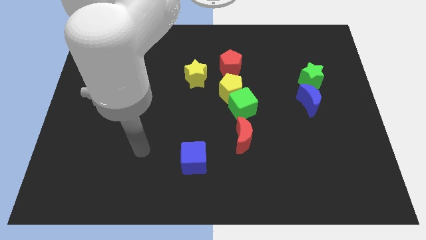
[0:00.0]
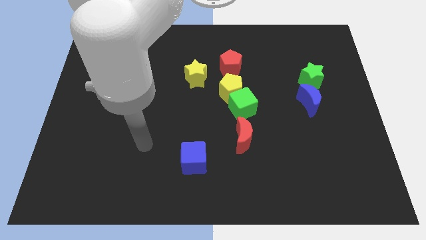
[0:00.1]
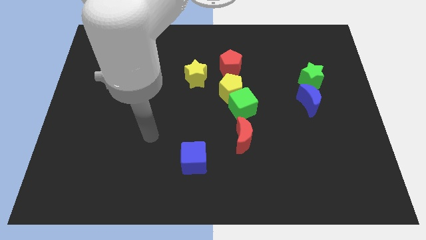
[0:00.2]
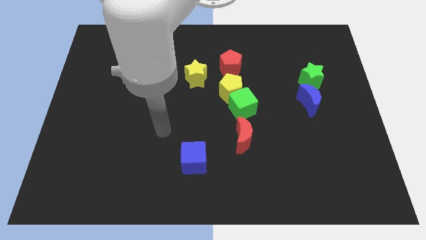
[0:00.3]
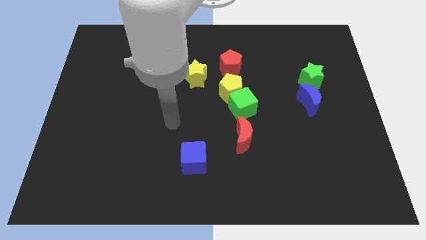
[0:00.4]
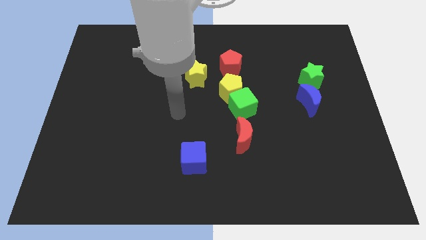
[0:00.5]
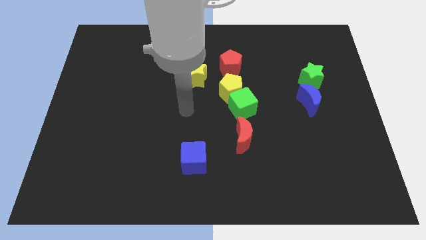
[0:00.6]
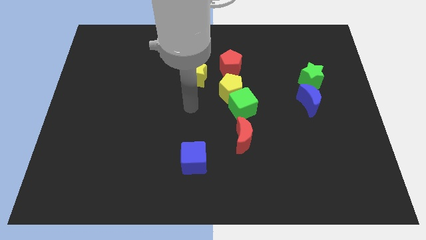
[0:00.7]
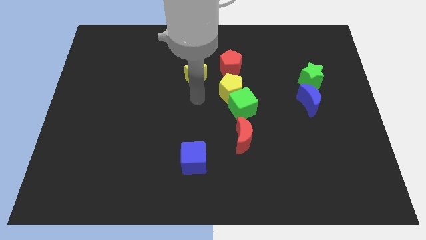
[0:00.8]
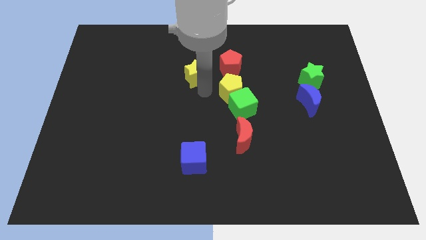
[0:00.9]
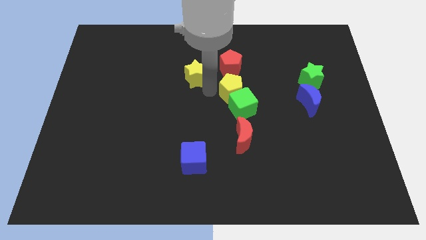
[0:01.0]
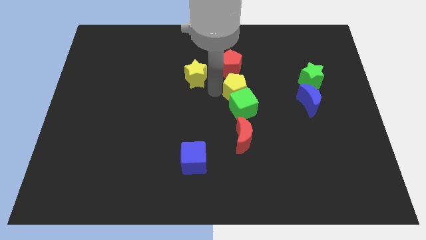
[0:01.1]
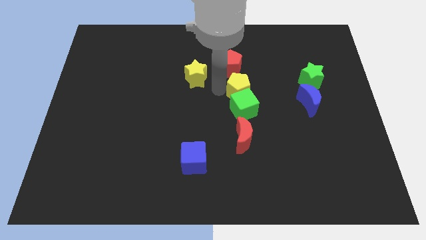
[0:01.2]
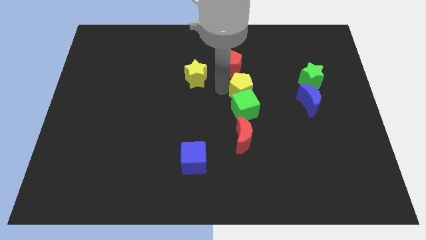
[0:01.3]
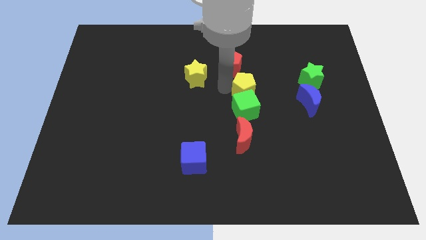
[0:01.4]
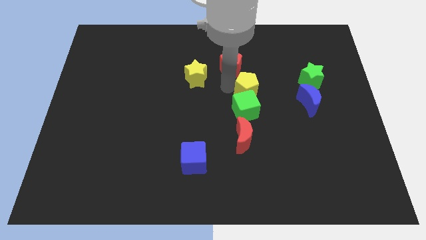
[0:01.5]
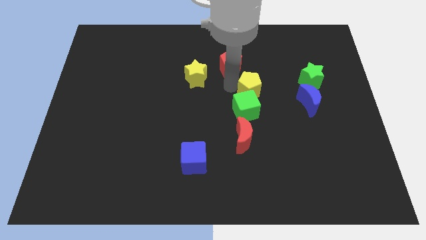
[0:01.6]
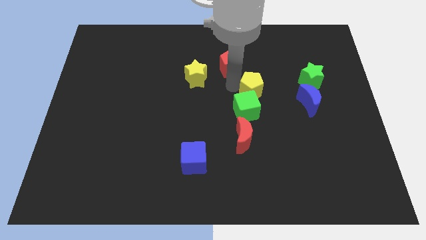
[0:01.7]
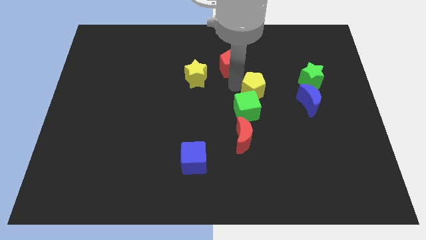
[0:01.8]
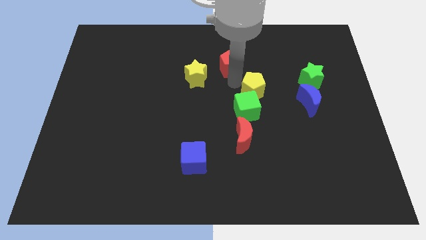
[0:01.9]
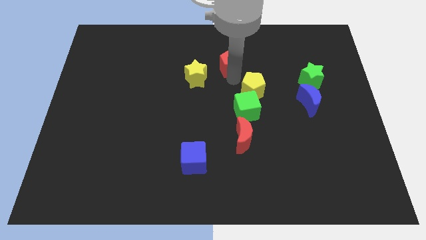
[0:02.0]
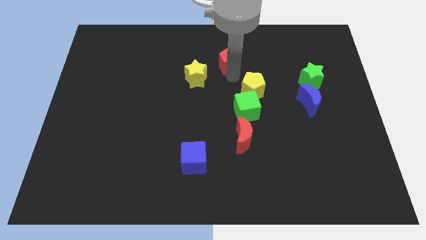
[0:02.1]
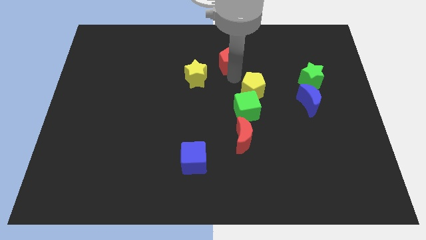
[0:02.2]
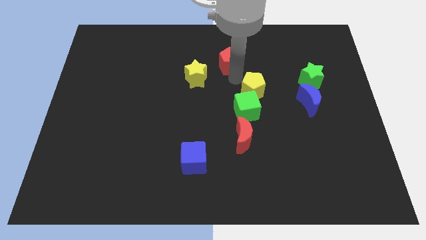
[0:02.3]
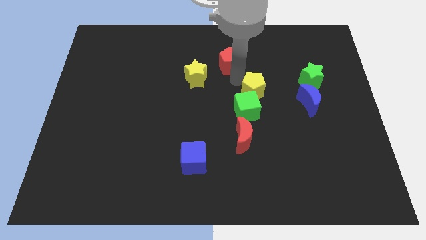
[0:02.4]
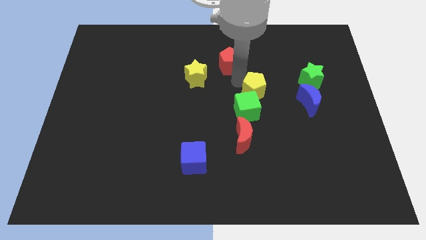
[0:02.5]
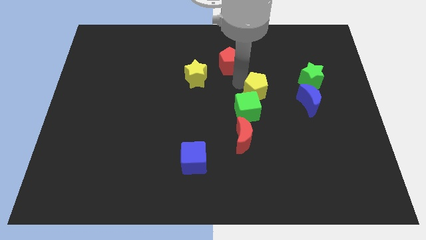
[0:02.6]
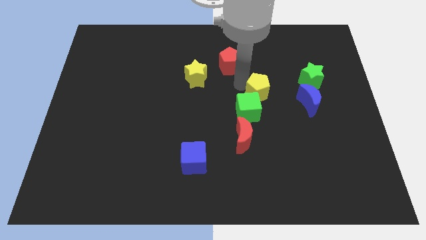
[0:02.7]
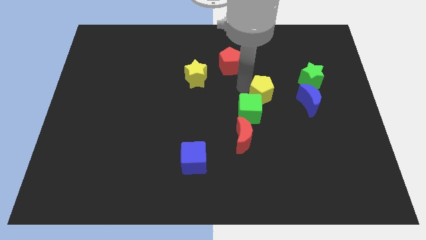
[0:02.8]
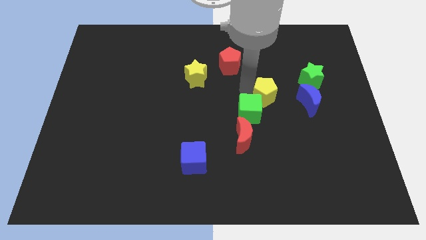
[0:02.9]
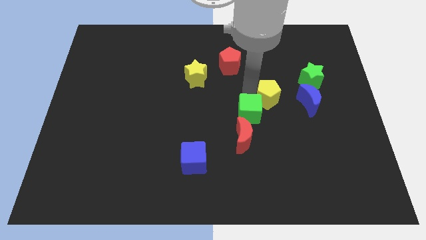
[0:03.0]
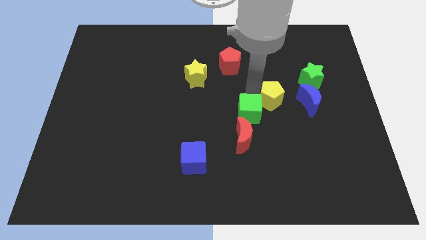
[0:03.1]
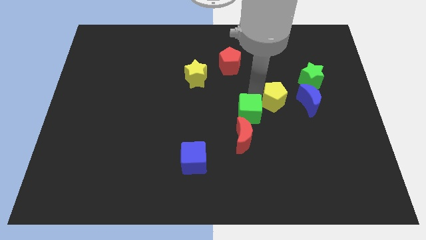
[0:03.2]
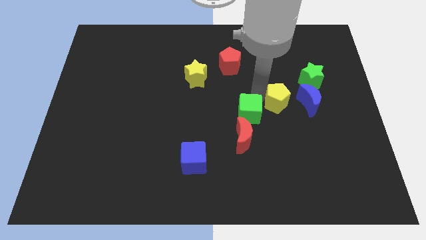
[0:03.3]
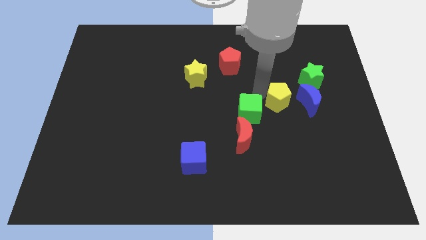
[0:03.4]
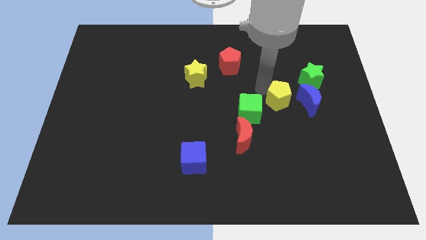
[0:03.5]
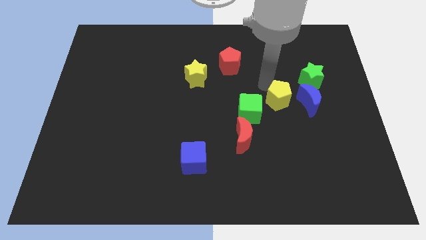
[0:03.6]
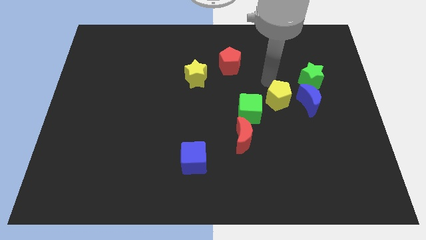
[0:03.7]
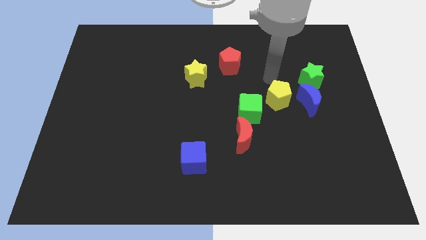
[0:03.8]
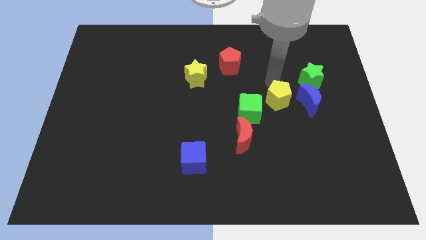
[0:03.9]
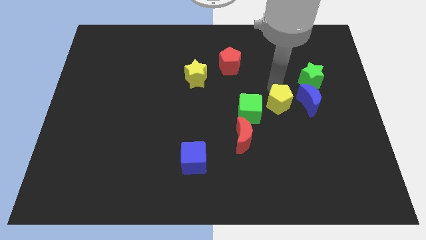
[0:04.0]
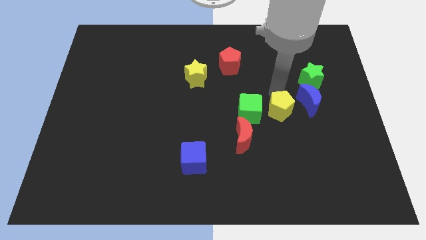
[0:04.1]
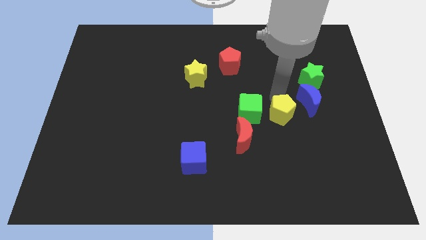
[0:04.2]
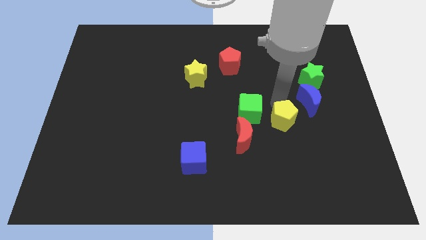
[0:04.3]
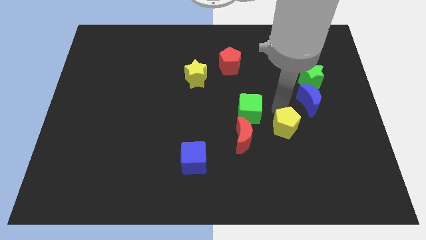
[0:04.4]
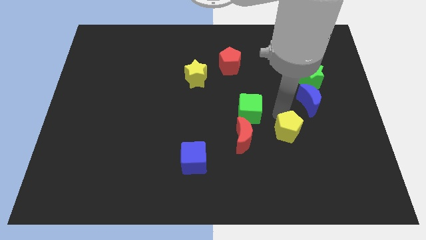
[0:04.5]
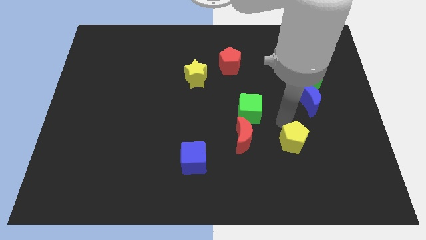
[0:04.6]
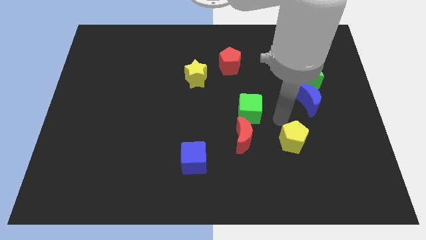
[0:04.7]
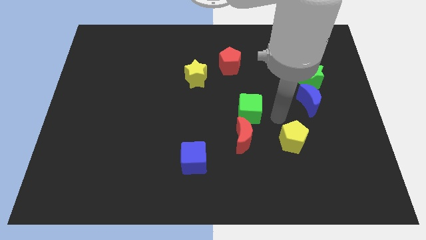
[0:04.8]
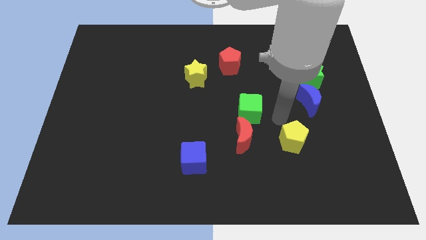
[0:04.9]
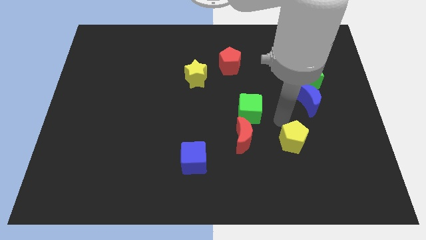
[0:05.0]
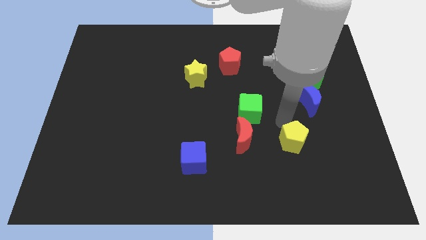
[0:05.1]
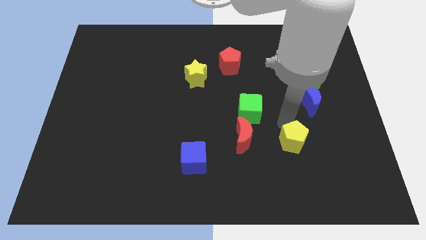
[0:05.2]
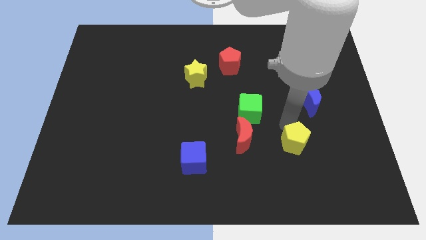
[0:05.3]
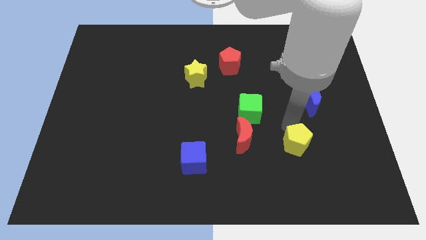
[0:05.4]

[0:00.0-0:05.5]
push the yellow pentagon diagonally down and right

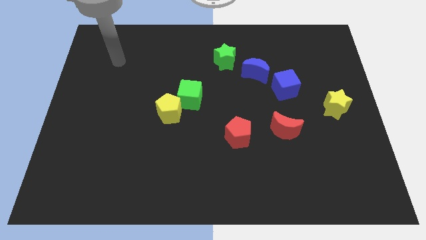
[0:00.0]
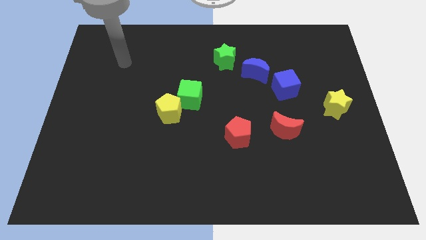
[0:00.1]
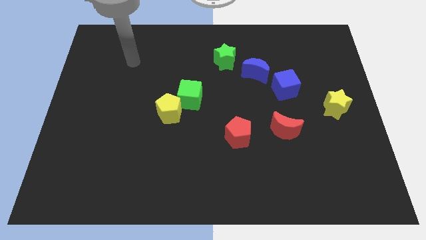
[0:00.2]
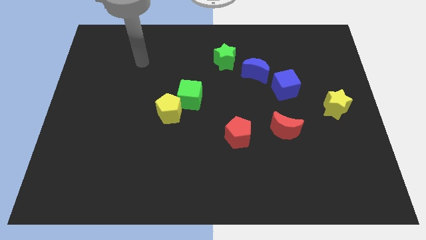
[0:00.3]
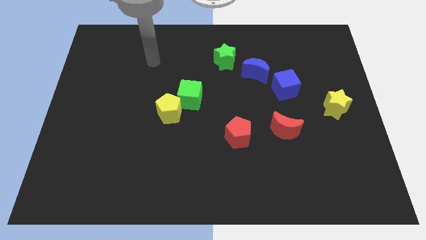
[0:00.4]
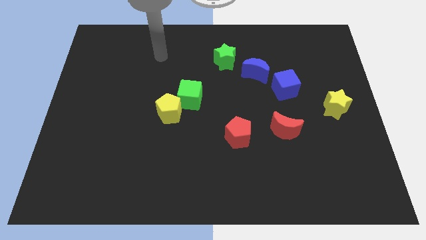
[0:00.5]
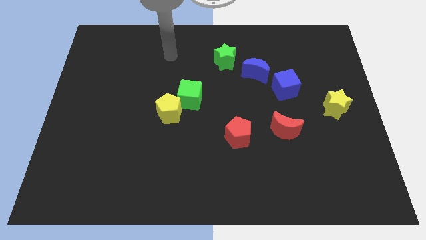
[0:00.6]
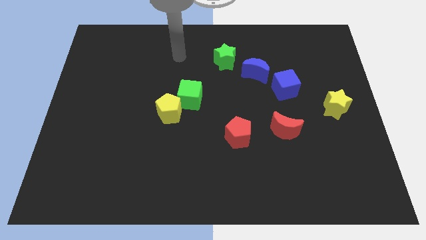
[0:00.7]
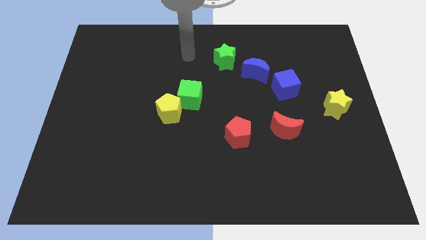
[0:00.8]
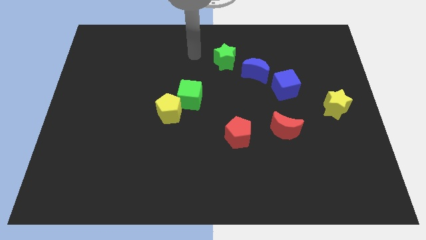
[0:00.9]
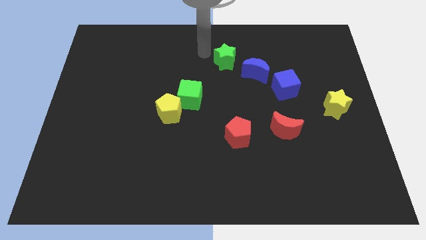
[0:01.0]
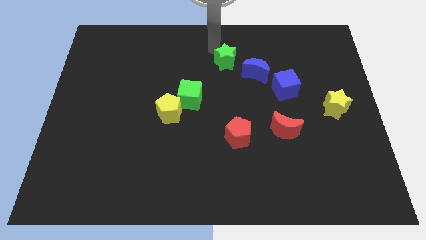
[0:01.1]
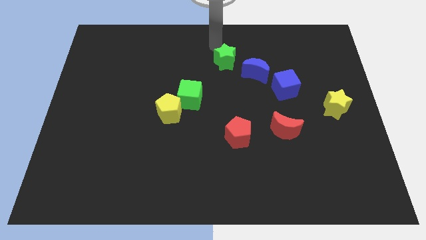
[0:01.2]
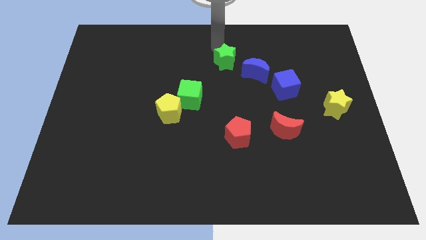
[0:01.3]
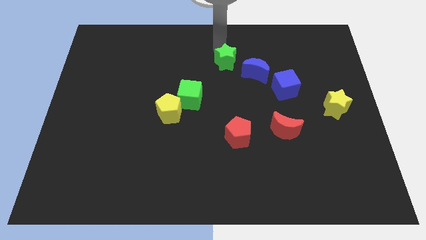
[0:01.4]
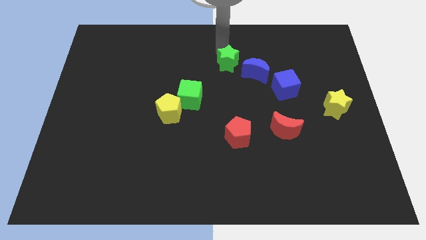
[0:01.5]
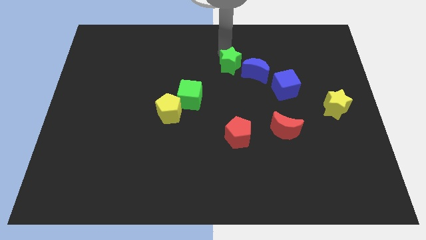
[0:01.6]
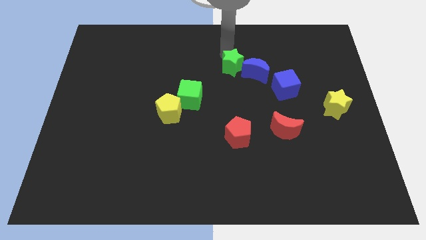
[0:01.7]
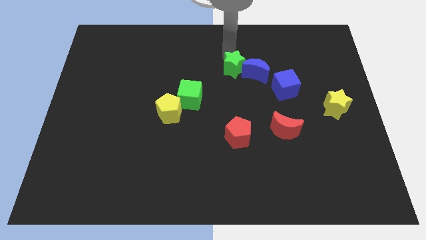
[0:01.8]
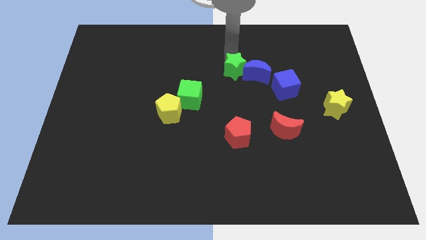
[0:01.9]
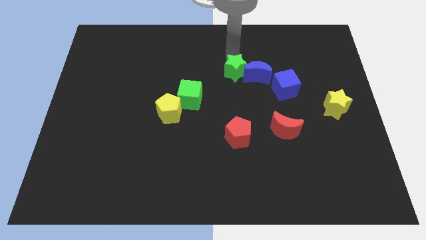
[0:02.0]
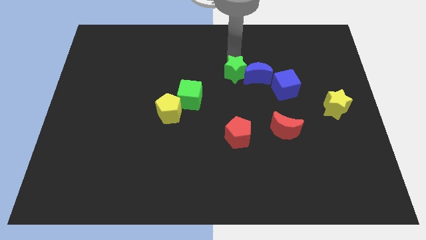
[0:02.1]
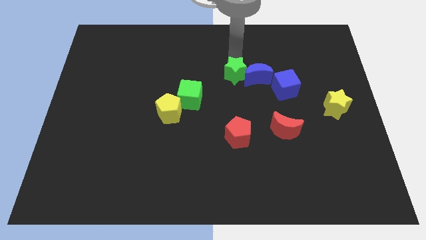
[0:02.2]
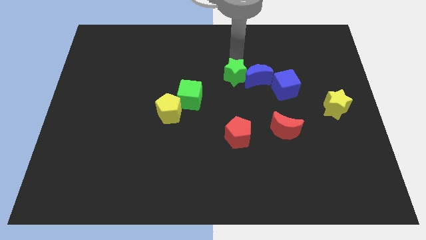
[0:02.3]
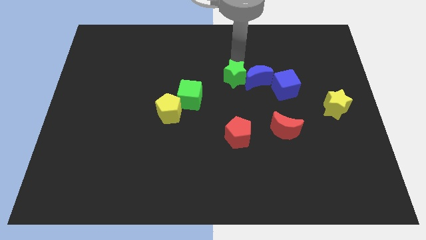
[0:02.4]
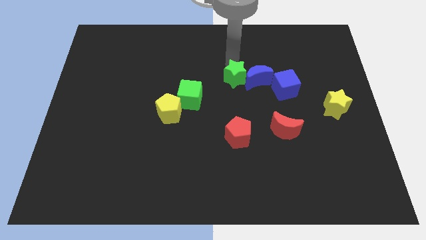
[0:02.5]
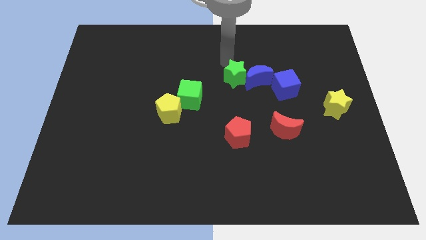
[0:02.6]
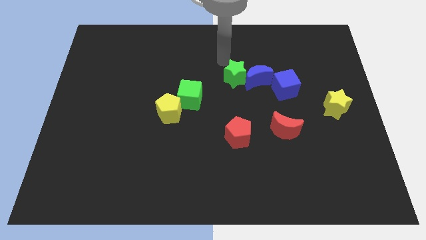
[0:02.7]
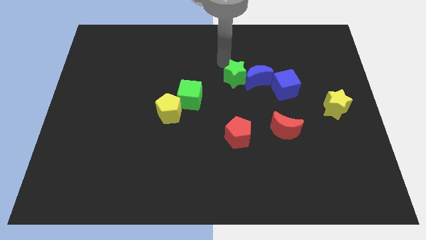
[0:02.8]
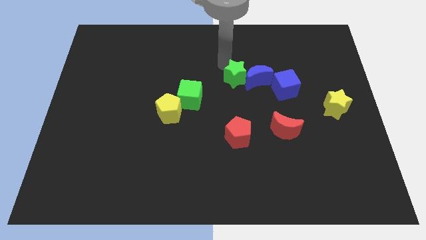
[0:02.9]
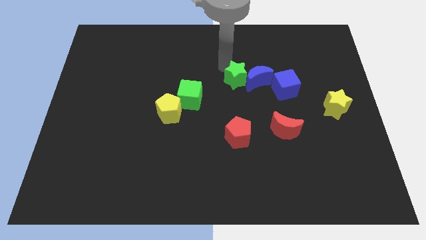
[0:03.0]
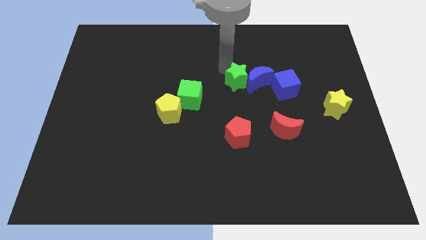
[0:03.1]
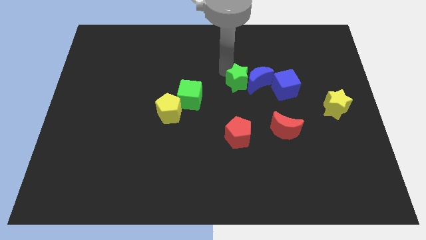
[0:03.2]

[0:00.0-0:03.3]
slightly slide the green star downwards and to the right
